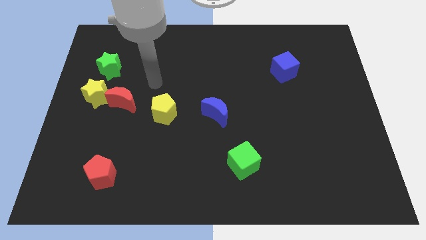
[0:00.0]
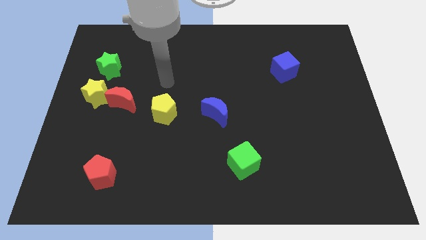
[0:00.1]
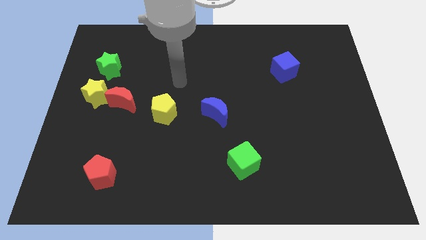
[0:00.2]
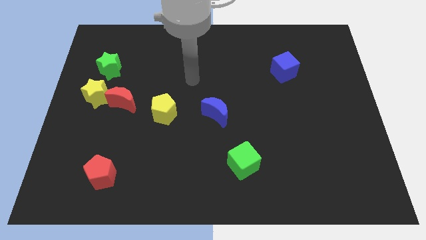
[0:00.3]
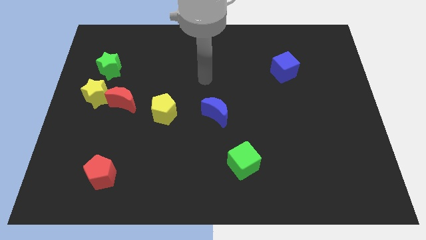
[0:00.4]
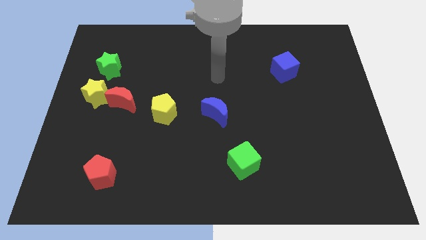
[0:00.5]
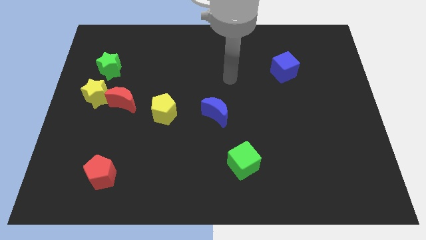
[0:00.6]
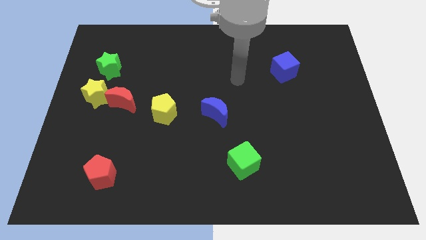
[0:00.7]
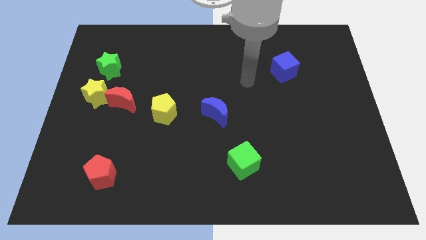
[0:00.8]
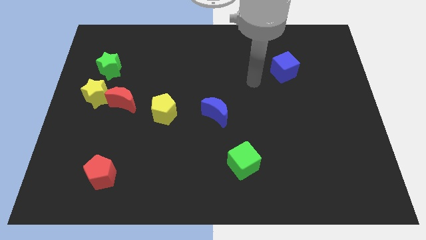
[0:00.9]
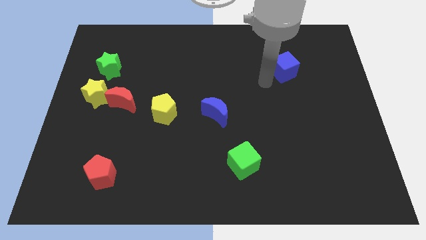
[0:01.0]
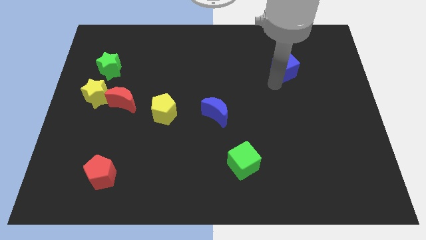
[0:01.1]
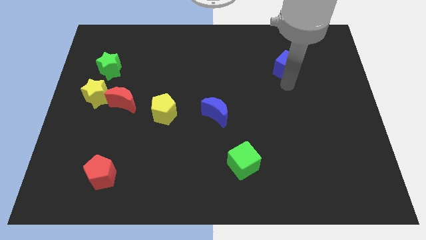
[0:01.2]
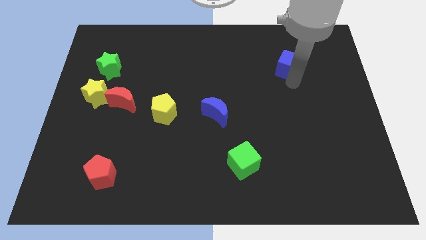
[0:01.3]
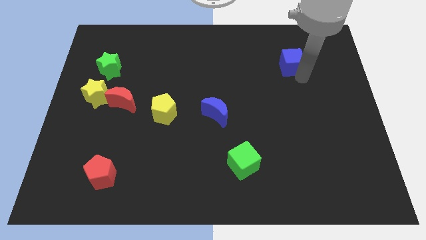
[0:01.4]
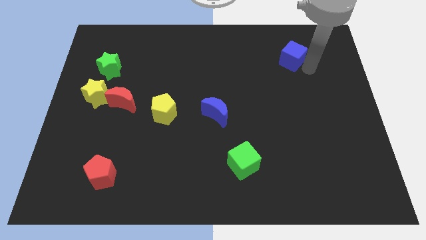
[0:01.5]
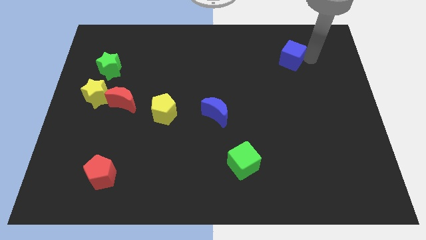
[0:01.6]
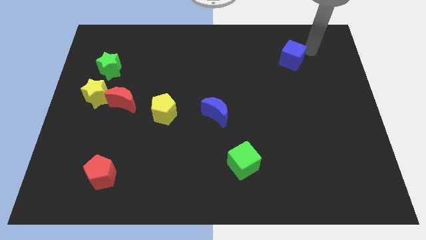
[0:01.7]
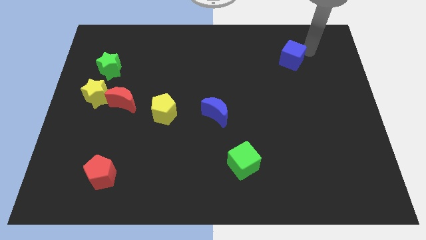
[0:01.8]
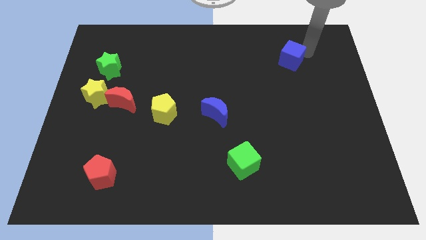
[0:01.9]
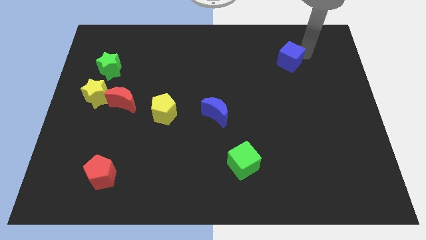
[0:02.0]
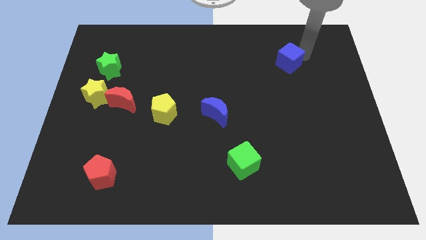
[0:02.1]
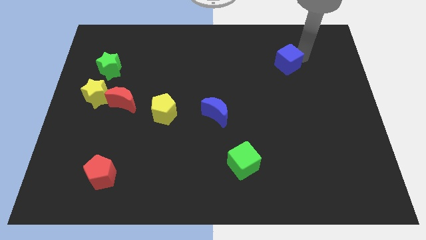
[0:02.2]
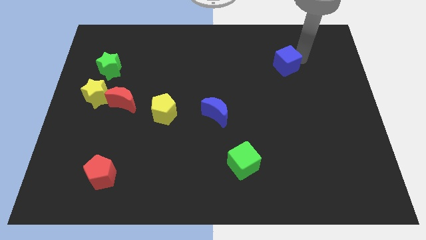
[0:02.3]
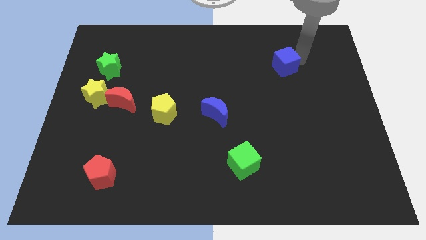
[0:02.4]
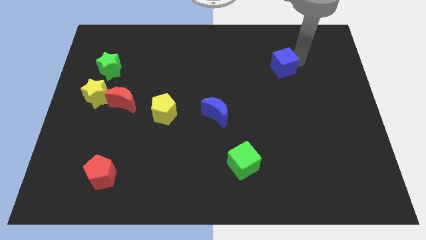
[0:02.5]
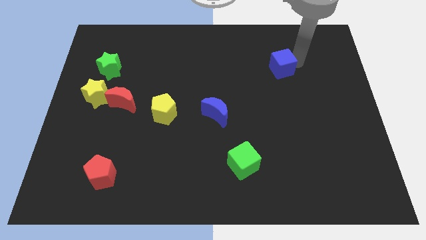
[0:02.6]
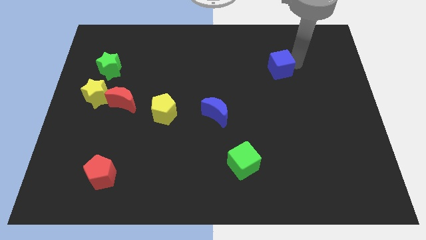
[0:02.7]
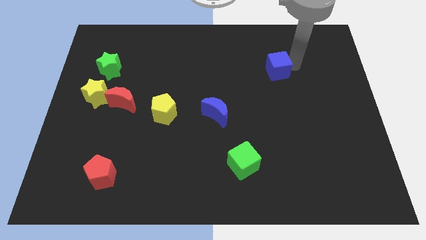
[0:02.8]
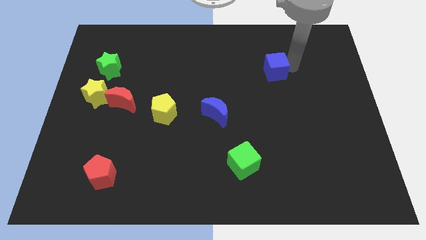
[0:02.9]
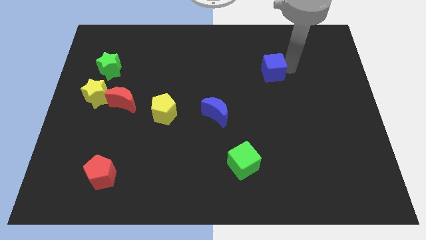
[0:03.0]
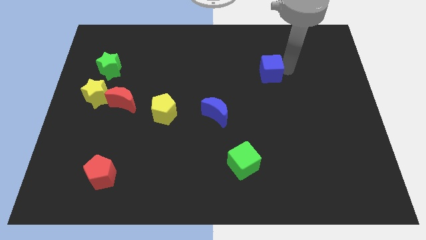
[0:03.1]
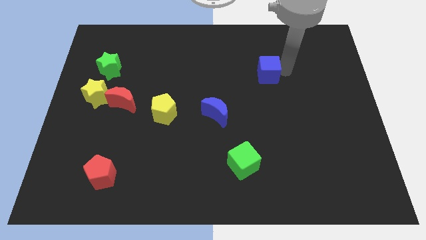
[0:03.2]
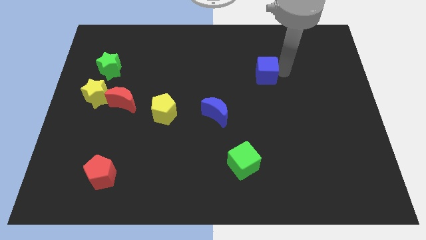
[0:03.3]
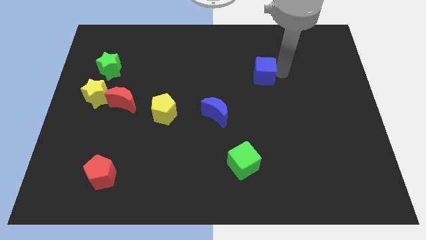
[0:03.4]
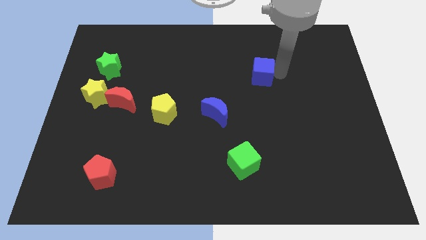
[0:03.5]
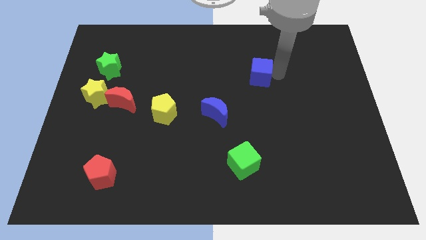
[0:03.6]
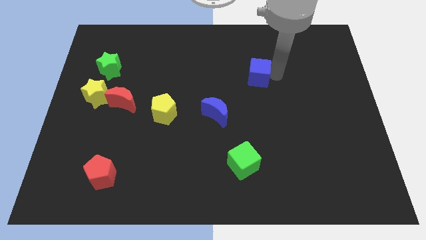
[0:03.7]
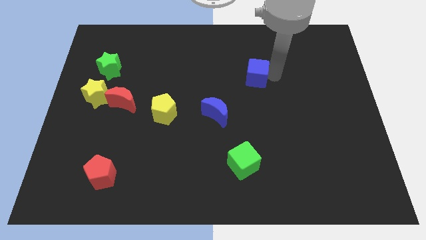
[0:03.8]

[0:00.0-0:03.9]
move the blue cube a little to the left

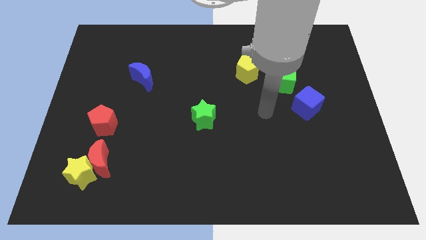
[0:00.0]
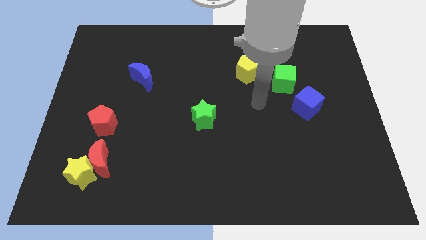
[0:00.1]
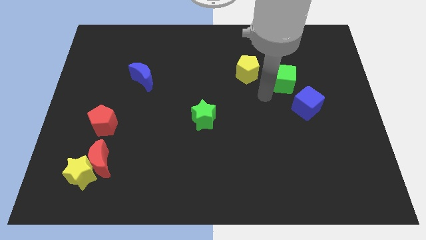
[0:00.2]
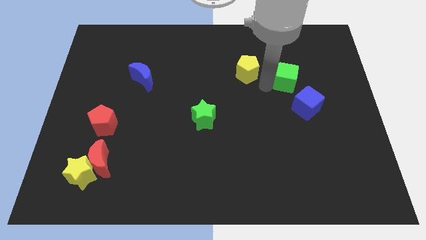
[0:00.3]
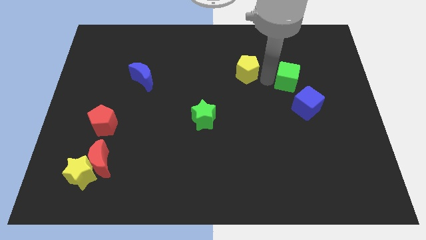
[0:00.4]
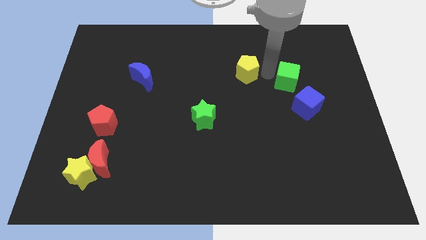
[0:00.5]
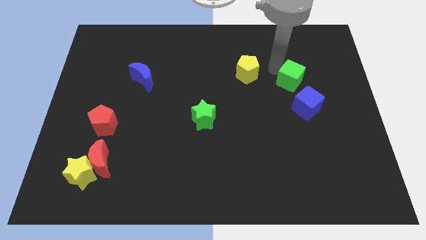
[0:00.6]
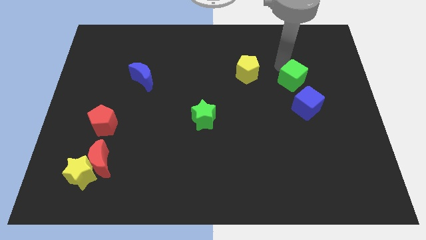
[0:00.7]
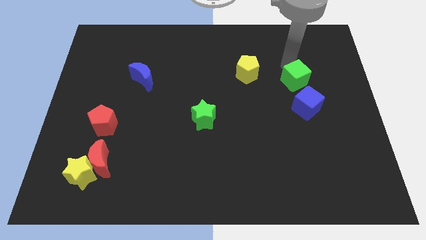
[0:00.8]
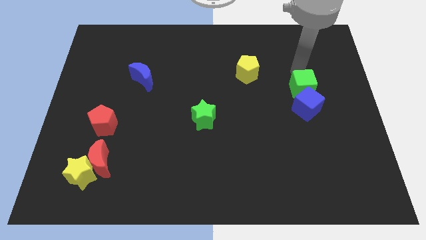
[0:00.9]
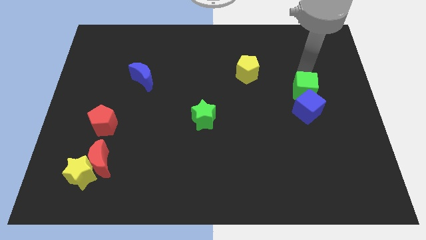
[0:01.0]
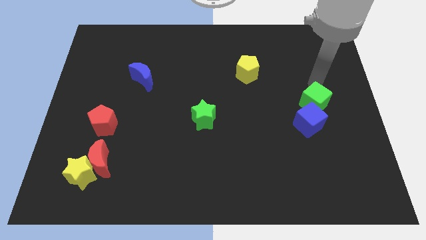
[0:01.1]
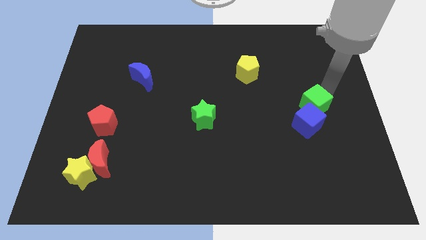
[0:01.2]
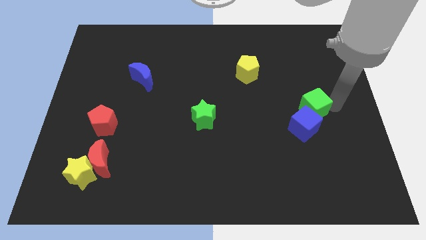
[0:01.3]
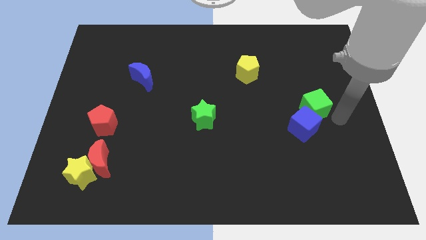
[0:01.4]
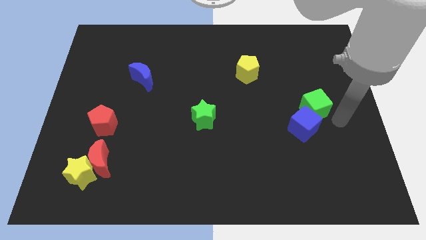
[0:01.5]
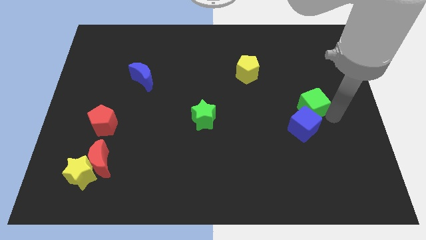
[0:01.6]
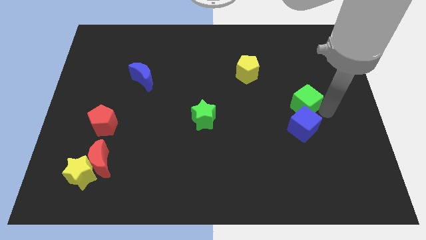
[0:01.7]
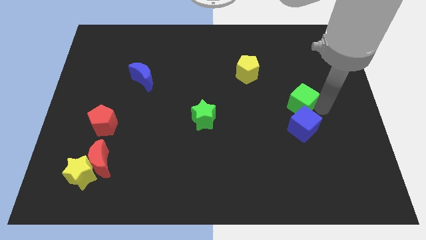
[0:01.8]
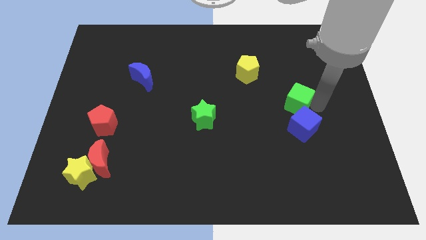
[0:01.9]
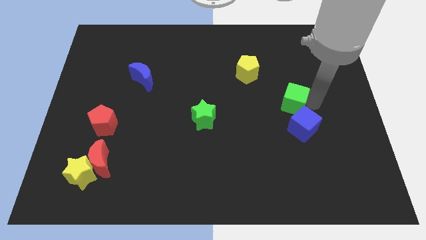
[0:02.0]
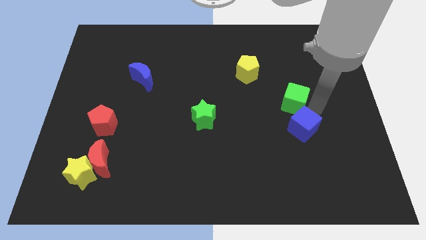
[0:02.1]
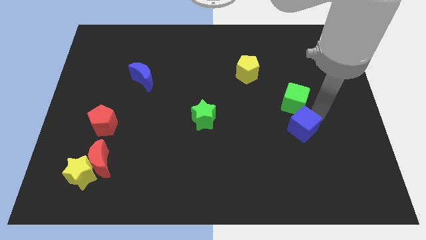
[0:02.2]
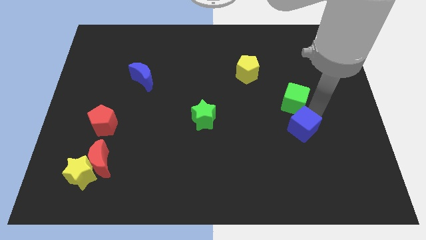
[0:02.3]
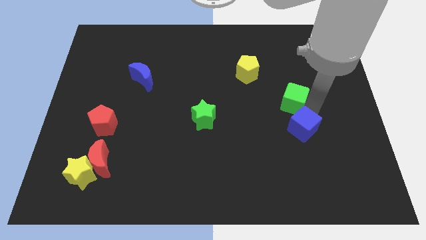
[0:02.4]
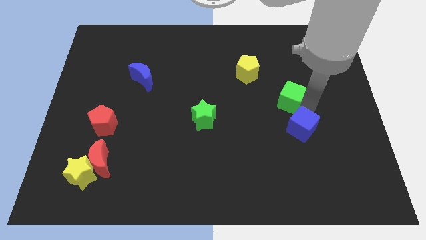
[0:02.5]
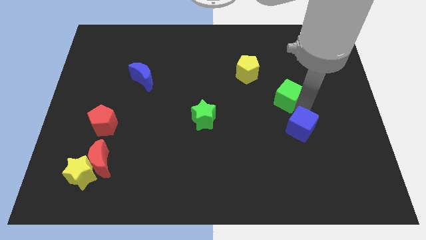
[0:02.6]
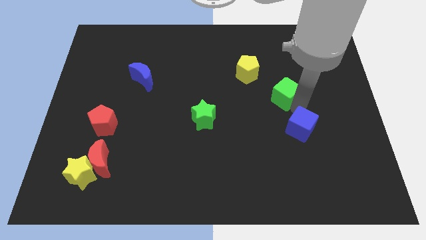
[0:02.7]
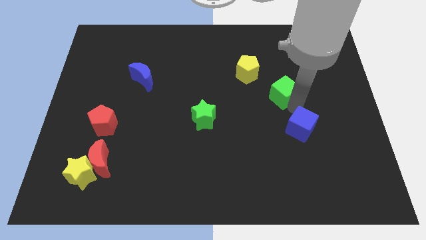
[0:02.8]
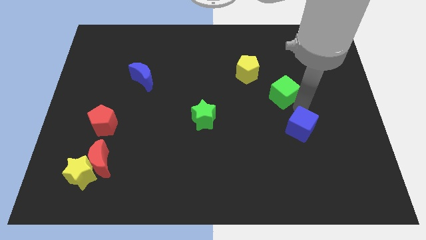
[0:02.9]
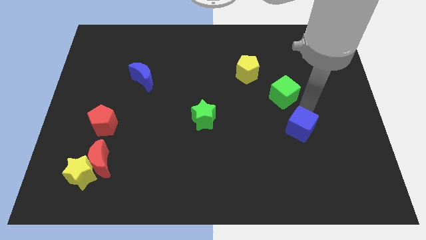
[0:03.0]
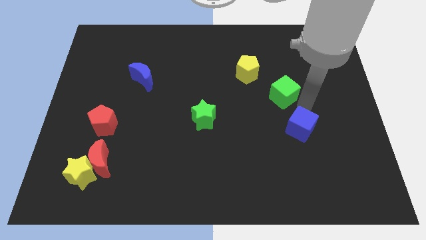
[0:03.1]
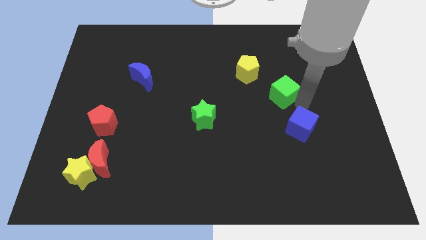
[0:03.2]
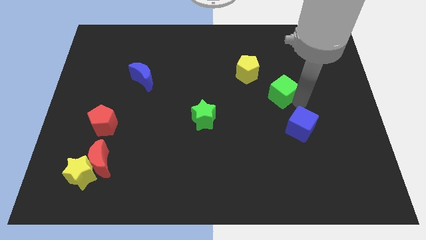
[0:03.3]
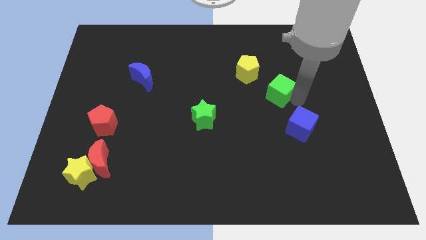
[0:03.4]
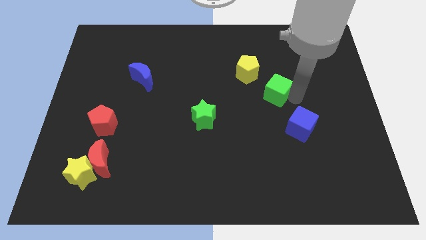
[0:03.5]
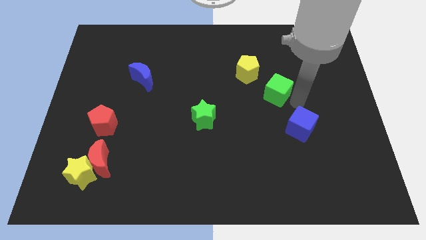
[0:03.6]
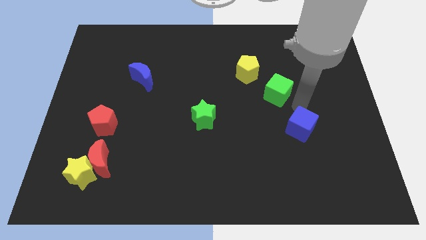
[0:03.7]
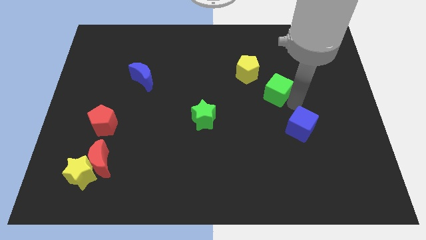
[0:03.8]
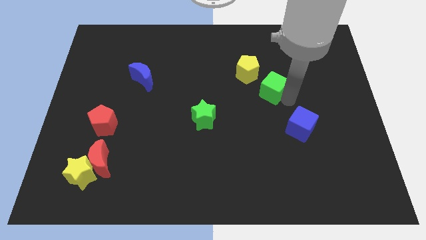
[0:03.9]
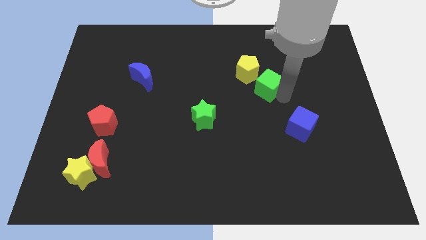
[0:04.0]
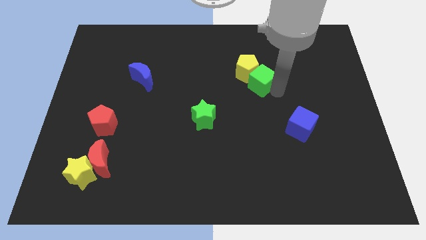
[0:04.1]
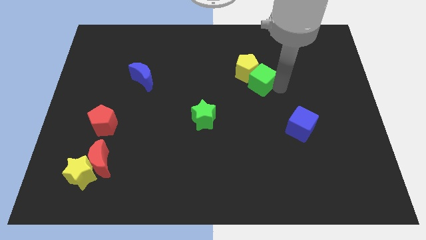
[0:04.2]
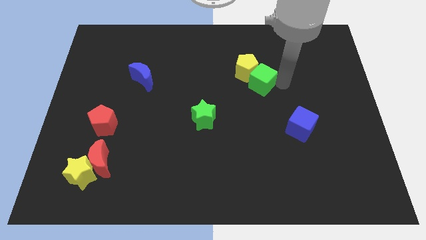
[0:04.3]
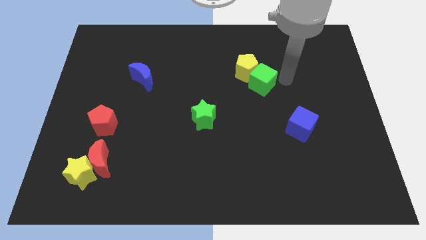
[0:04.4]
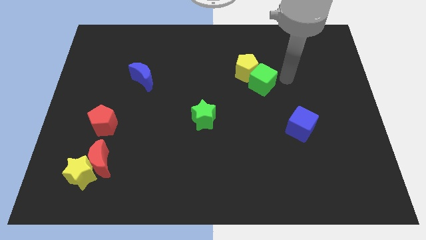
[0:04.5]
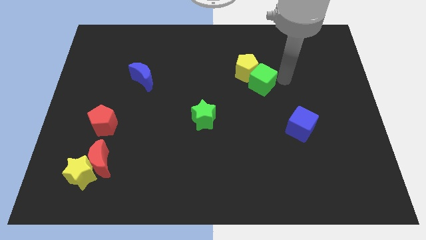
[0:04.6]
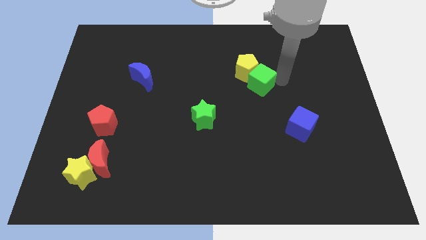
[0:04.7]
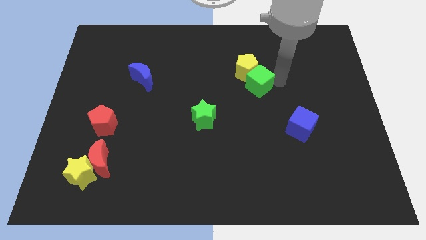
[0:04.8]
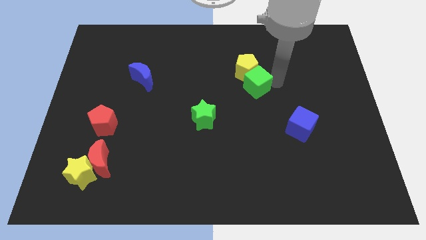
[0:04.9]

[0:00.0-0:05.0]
slightly push the green cube left
